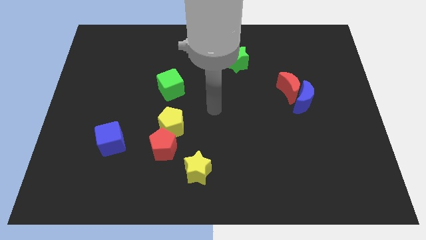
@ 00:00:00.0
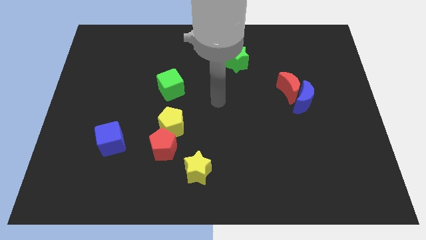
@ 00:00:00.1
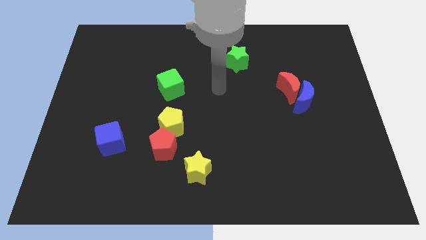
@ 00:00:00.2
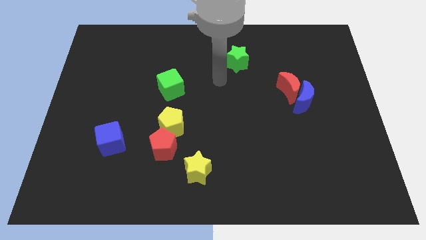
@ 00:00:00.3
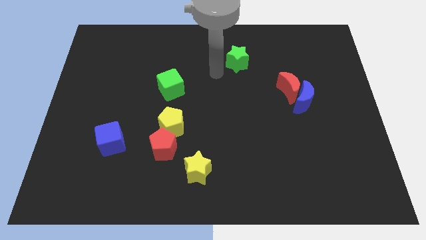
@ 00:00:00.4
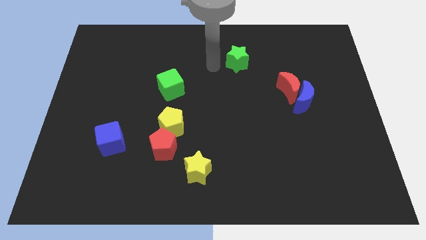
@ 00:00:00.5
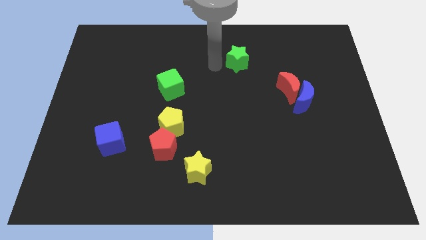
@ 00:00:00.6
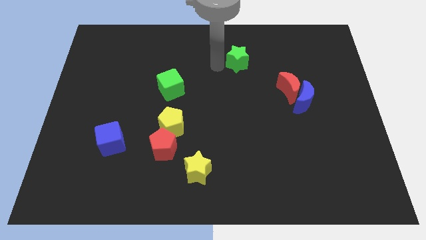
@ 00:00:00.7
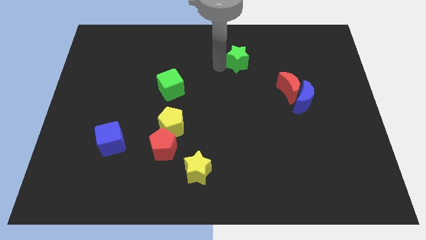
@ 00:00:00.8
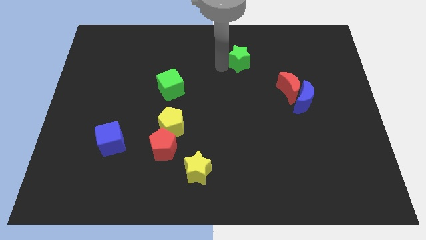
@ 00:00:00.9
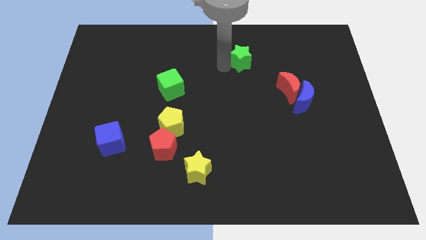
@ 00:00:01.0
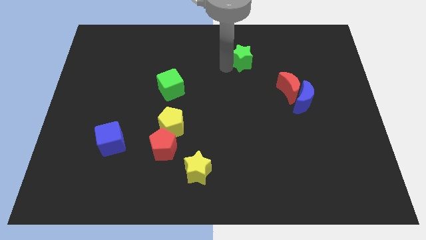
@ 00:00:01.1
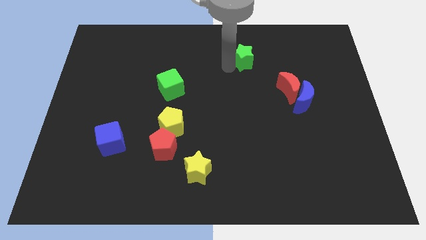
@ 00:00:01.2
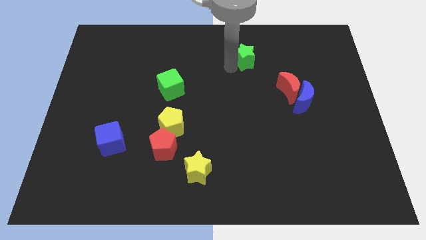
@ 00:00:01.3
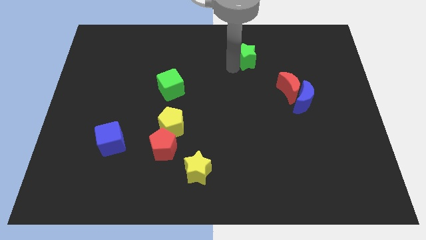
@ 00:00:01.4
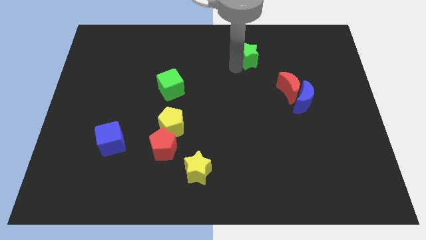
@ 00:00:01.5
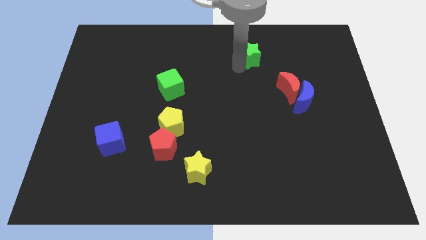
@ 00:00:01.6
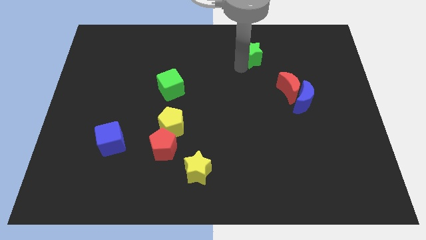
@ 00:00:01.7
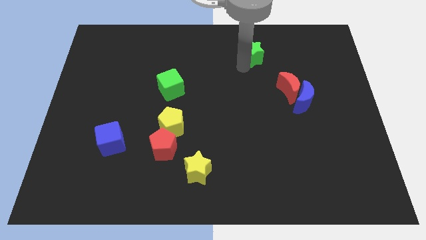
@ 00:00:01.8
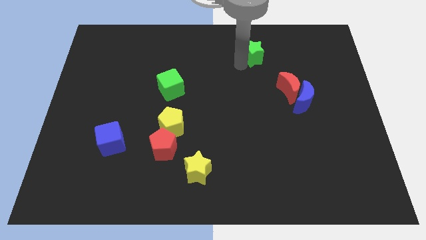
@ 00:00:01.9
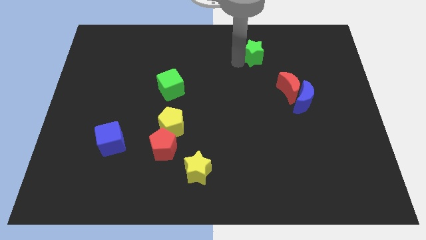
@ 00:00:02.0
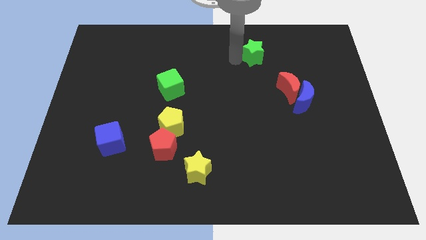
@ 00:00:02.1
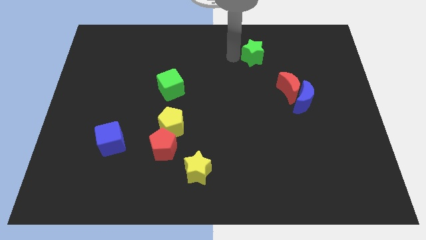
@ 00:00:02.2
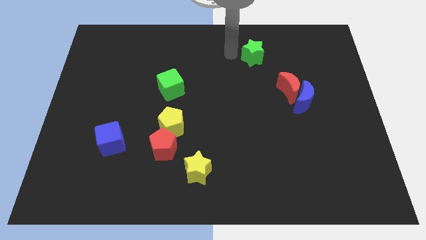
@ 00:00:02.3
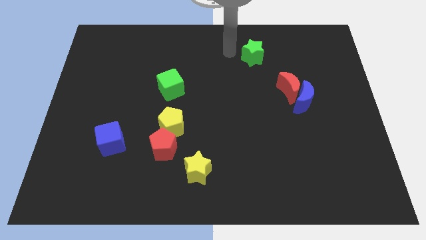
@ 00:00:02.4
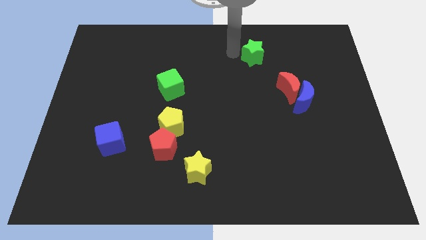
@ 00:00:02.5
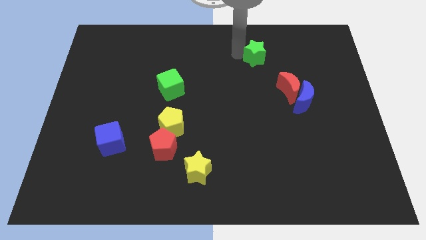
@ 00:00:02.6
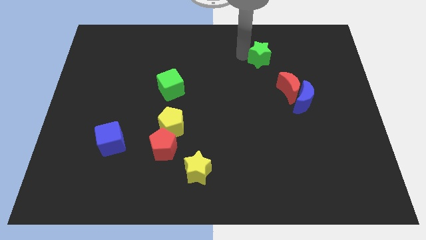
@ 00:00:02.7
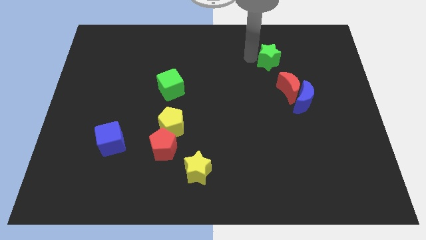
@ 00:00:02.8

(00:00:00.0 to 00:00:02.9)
move the green star a little to the right

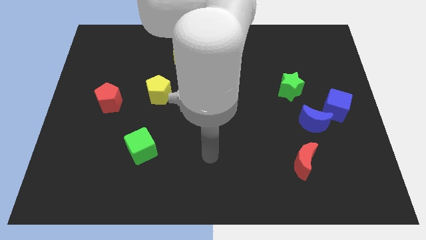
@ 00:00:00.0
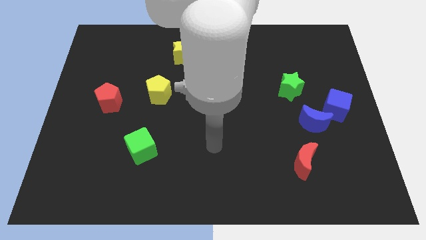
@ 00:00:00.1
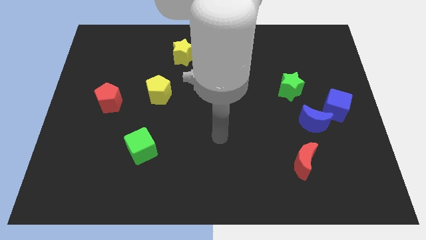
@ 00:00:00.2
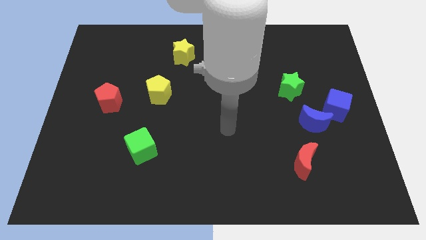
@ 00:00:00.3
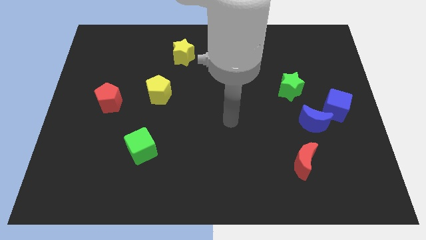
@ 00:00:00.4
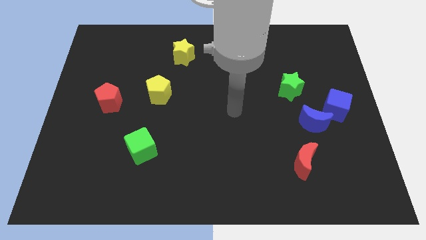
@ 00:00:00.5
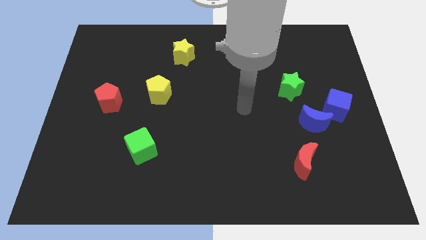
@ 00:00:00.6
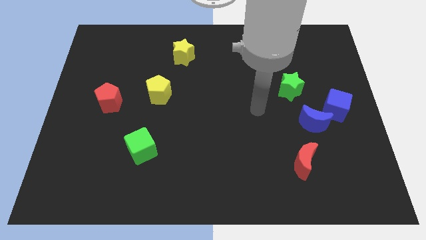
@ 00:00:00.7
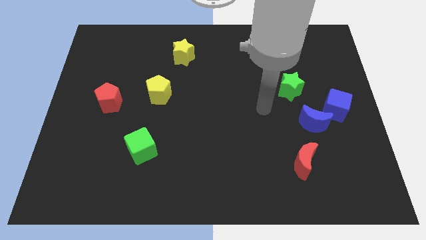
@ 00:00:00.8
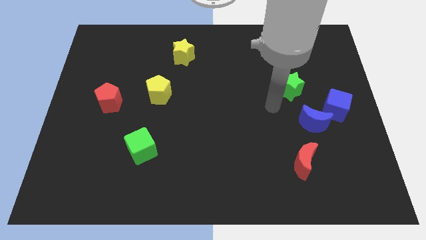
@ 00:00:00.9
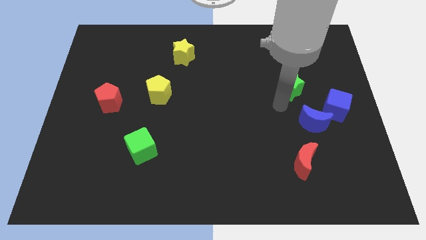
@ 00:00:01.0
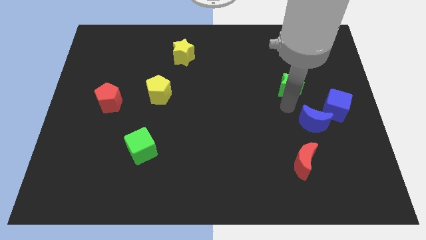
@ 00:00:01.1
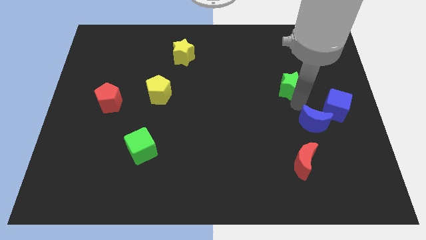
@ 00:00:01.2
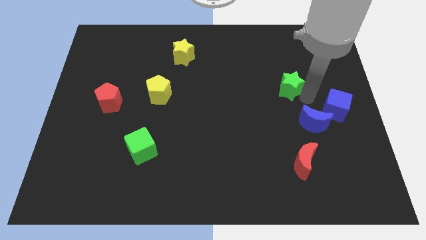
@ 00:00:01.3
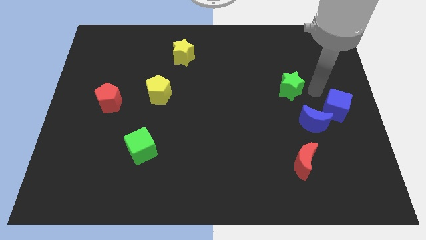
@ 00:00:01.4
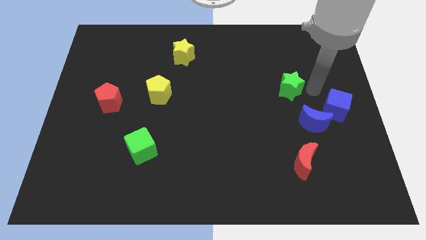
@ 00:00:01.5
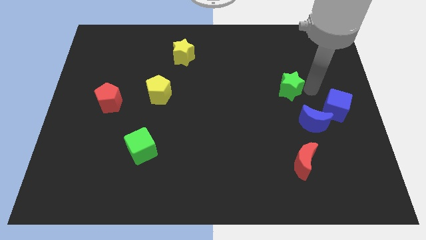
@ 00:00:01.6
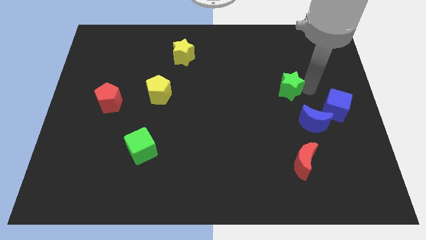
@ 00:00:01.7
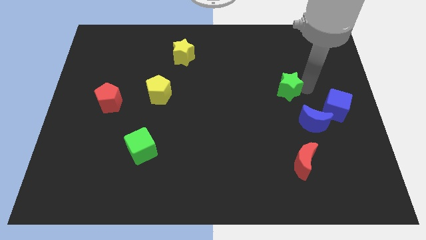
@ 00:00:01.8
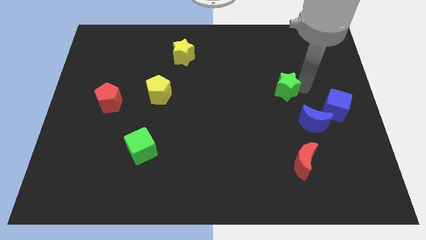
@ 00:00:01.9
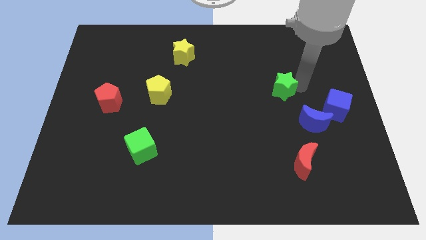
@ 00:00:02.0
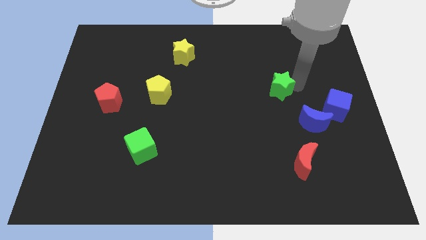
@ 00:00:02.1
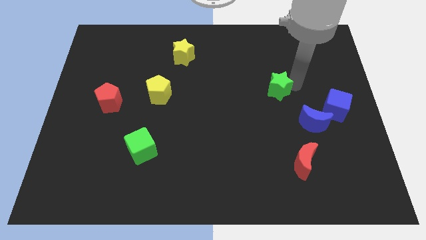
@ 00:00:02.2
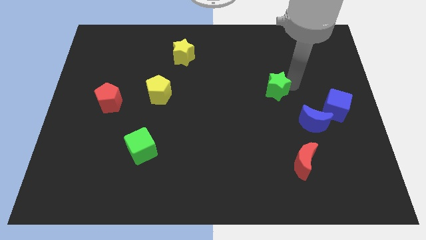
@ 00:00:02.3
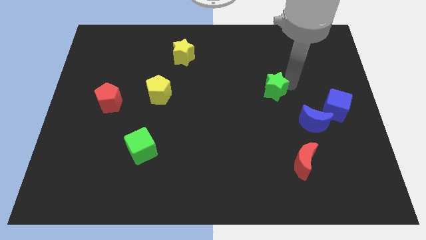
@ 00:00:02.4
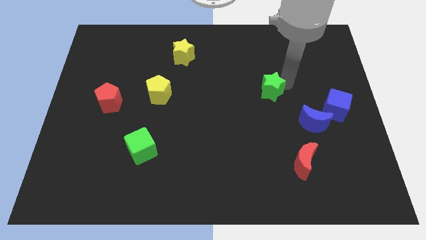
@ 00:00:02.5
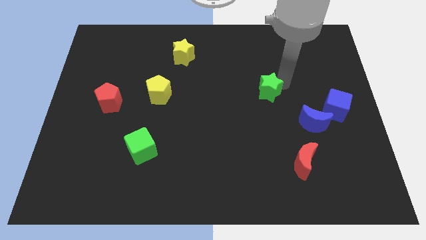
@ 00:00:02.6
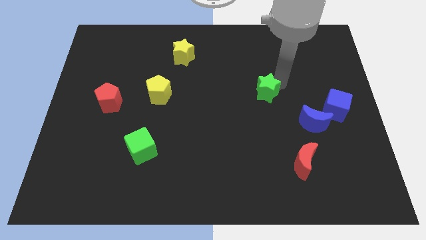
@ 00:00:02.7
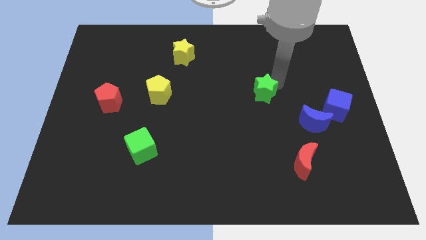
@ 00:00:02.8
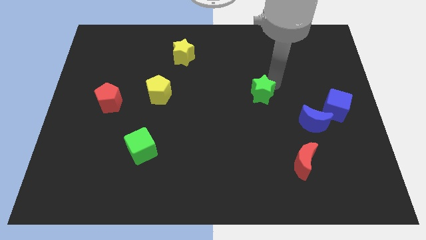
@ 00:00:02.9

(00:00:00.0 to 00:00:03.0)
move the green star a bit left

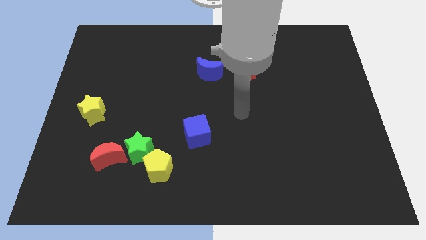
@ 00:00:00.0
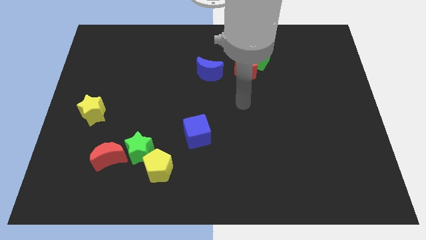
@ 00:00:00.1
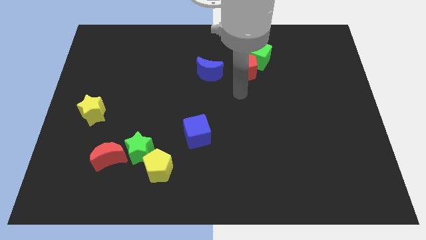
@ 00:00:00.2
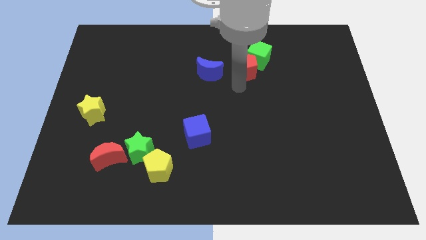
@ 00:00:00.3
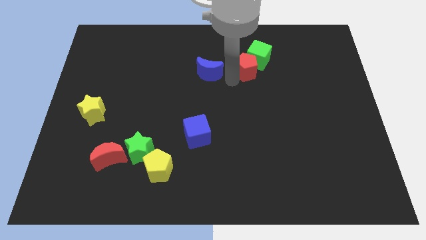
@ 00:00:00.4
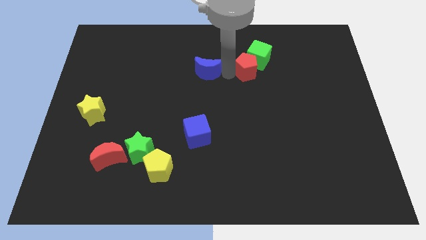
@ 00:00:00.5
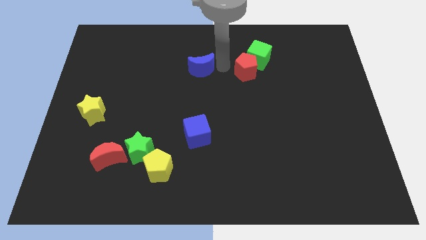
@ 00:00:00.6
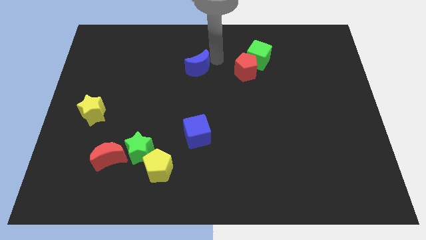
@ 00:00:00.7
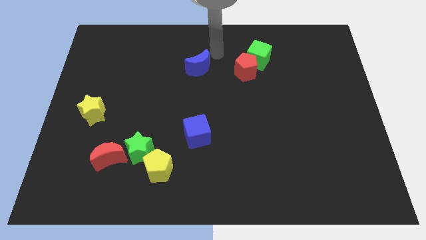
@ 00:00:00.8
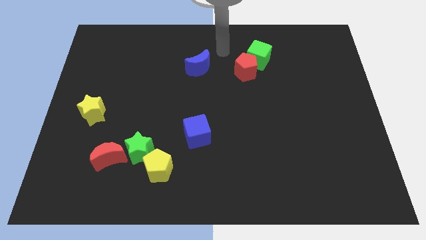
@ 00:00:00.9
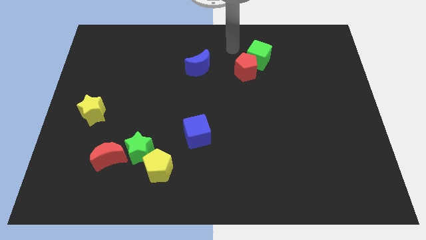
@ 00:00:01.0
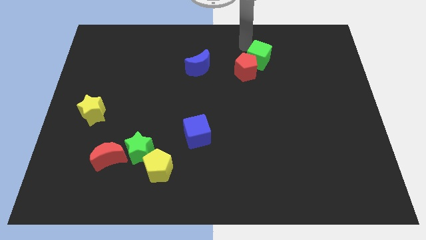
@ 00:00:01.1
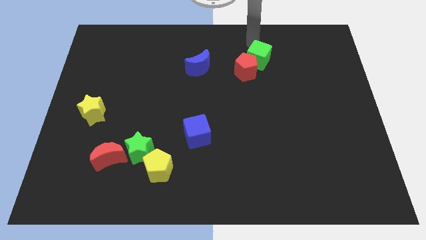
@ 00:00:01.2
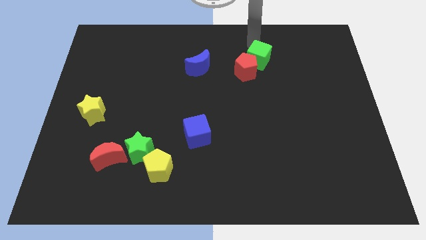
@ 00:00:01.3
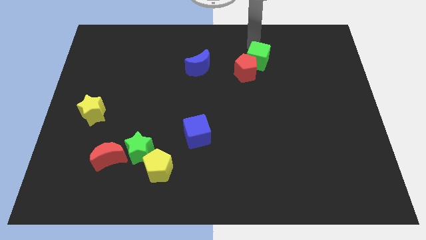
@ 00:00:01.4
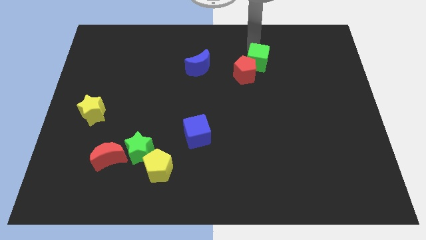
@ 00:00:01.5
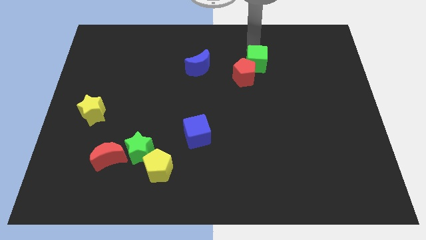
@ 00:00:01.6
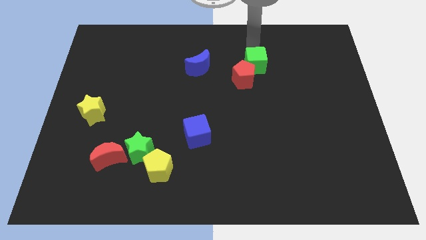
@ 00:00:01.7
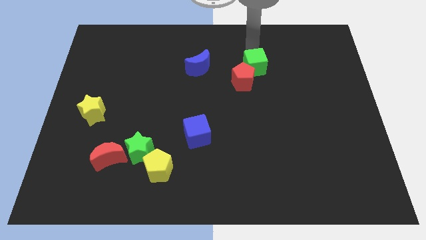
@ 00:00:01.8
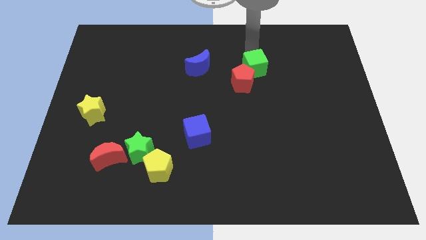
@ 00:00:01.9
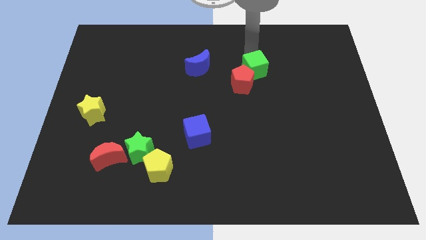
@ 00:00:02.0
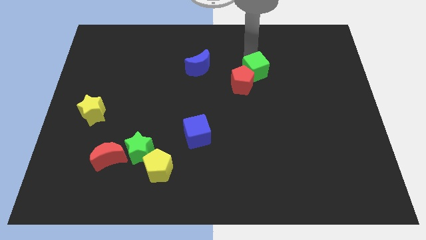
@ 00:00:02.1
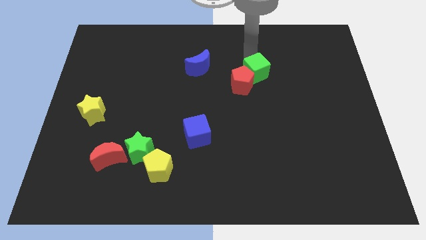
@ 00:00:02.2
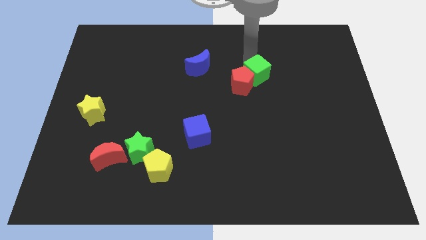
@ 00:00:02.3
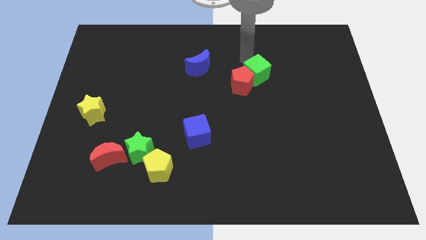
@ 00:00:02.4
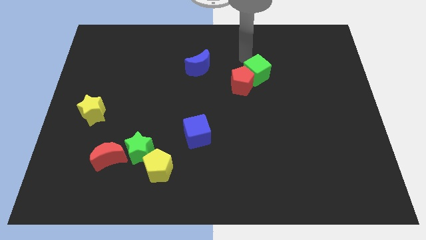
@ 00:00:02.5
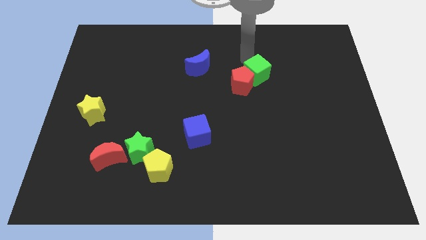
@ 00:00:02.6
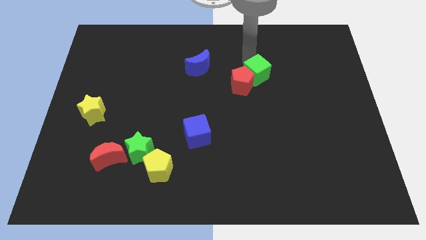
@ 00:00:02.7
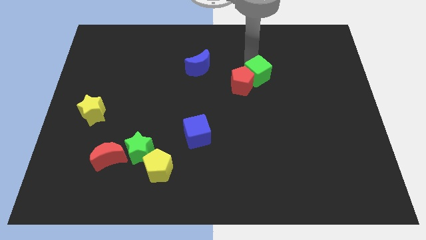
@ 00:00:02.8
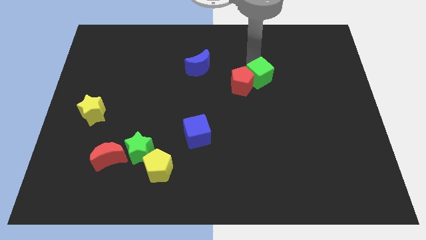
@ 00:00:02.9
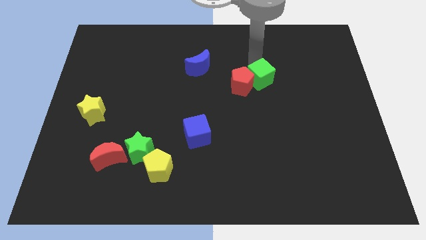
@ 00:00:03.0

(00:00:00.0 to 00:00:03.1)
slide the green cube downwards somewhat
